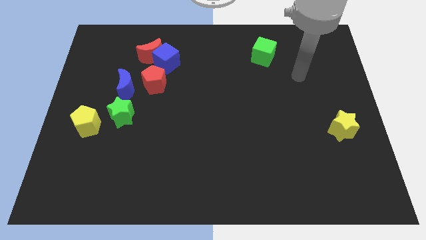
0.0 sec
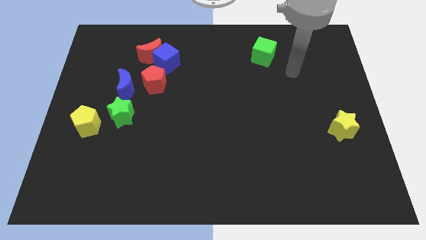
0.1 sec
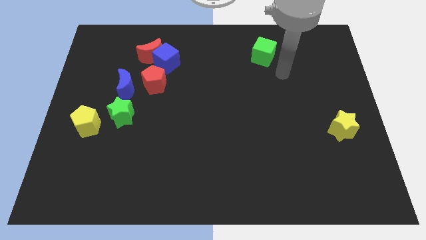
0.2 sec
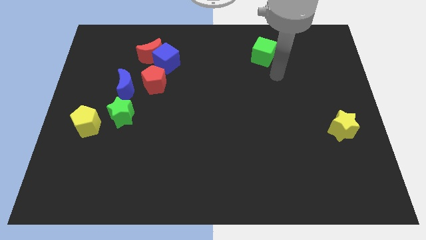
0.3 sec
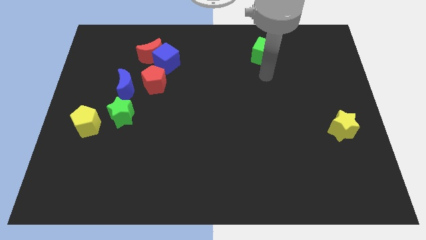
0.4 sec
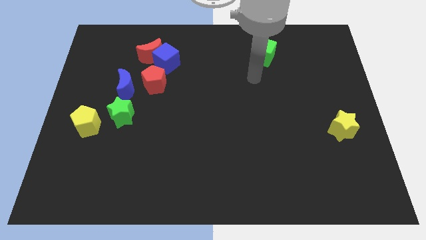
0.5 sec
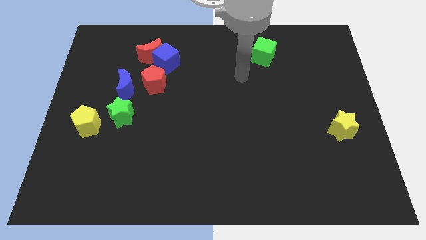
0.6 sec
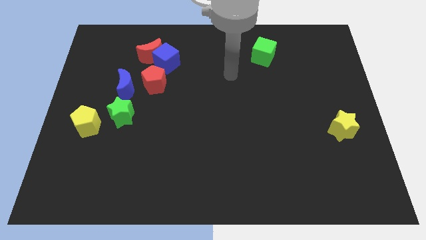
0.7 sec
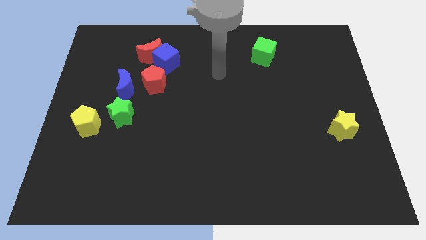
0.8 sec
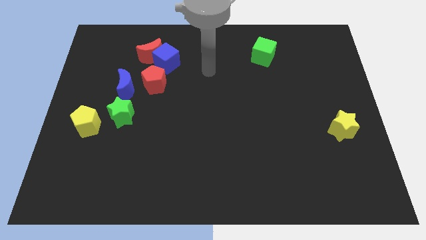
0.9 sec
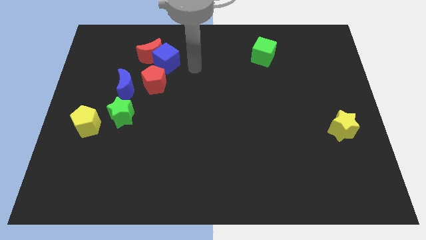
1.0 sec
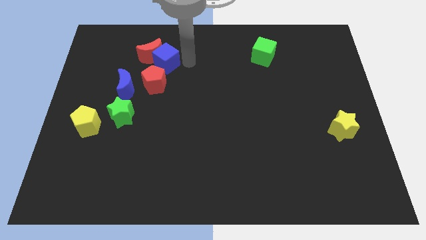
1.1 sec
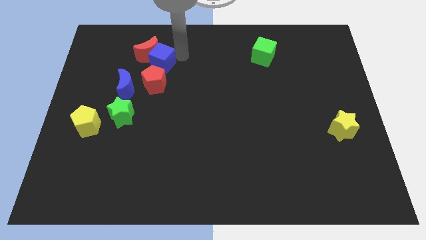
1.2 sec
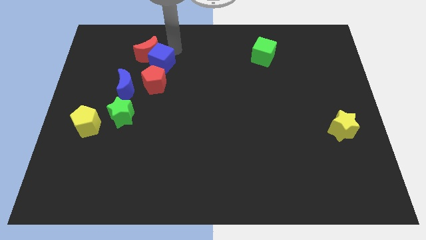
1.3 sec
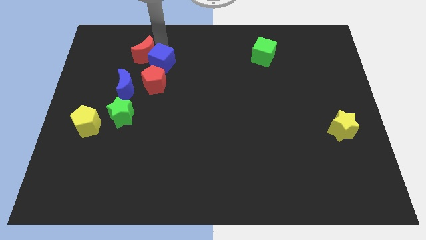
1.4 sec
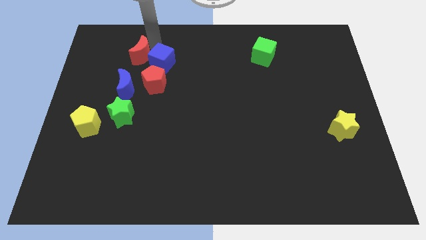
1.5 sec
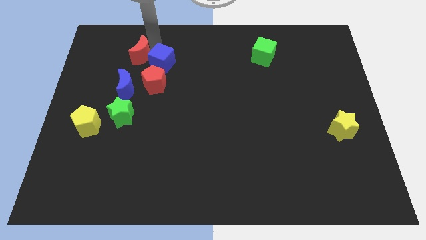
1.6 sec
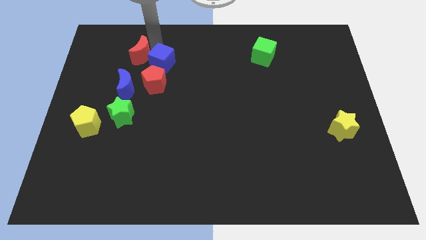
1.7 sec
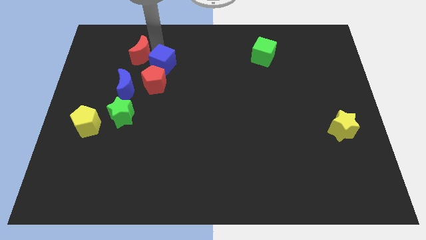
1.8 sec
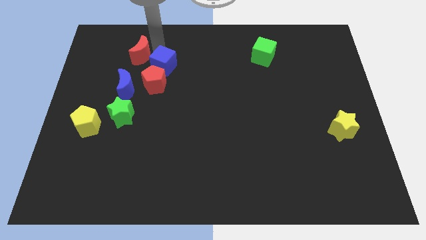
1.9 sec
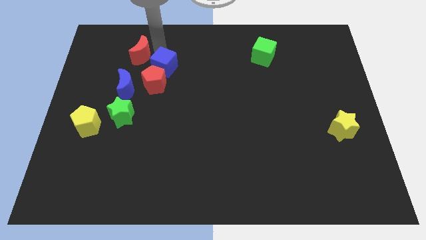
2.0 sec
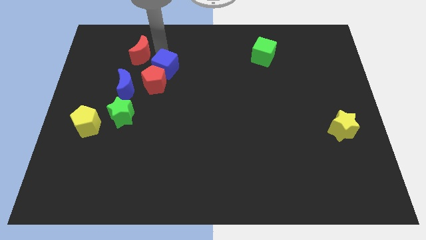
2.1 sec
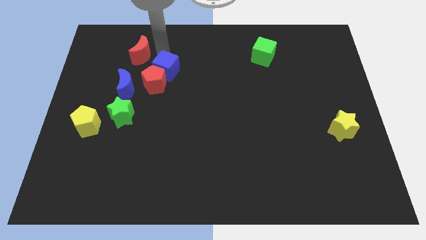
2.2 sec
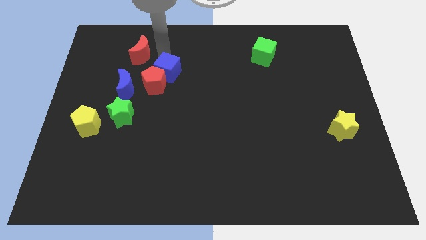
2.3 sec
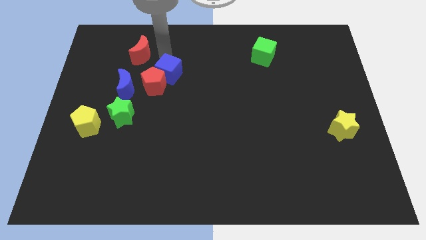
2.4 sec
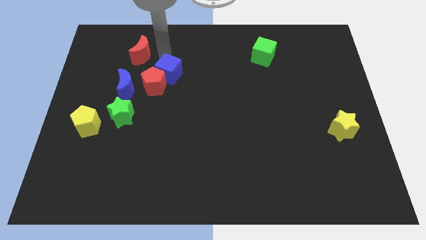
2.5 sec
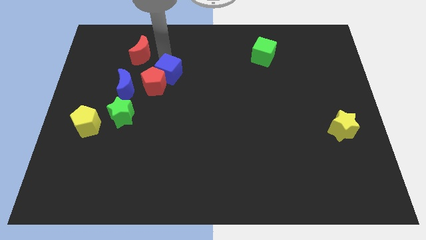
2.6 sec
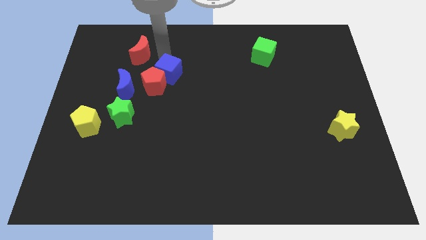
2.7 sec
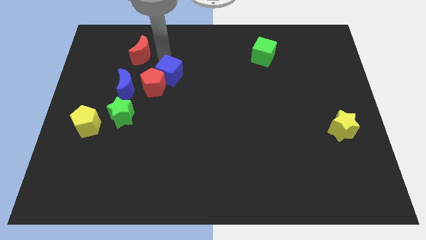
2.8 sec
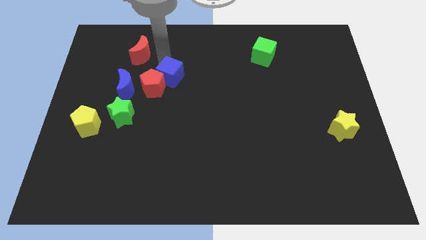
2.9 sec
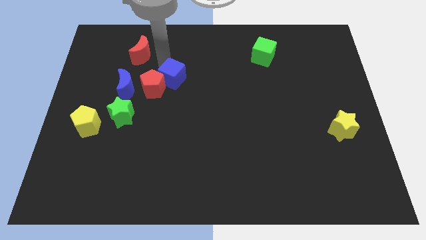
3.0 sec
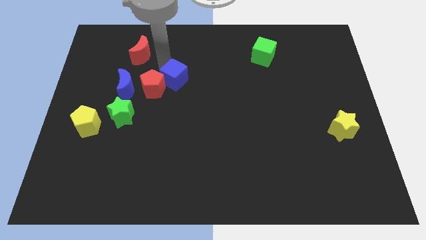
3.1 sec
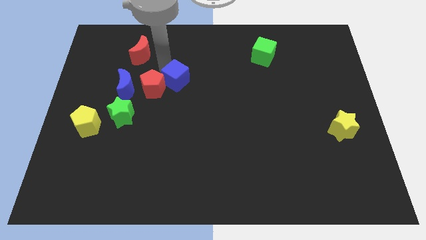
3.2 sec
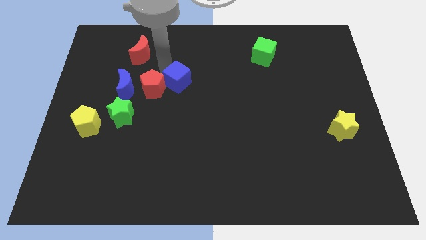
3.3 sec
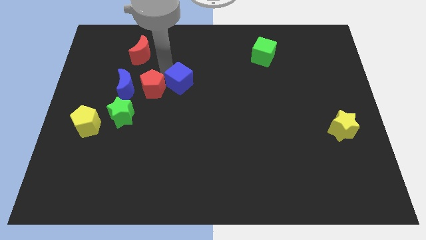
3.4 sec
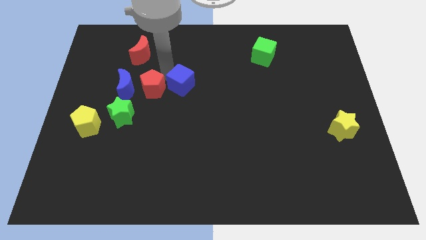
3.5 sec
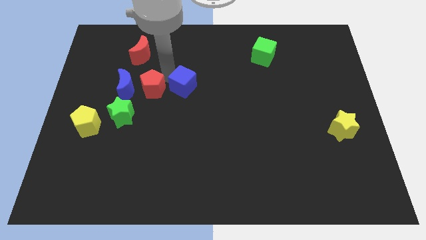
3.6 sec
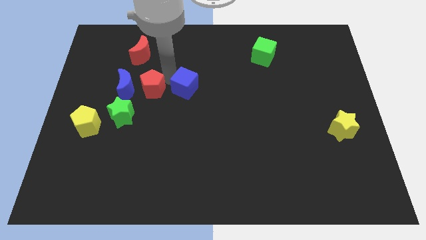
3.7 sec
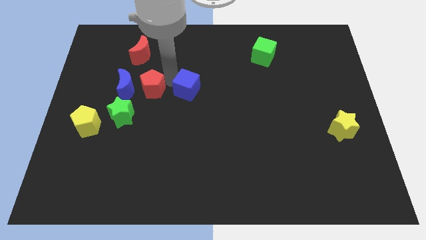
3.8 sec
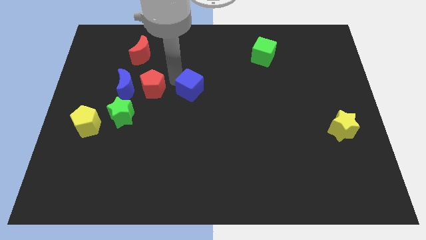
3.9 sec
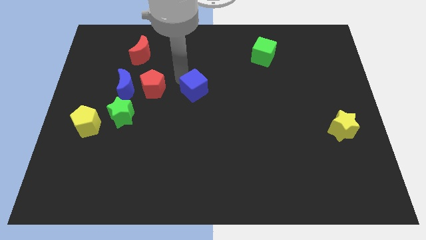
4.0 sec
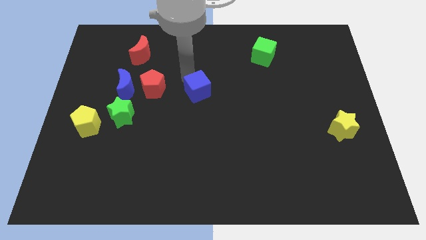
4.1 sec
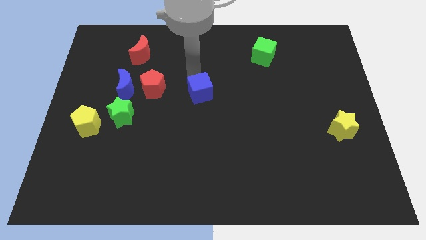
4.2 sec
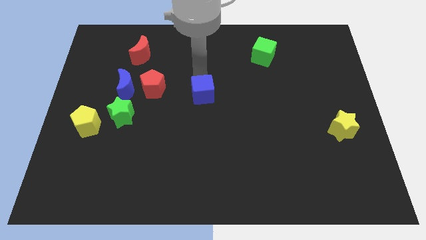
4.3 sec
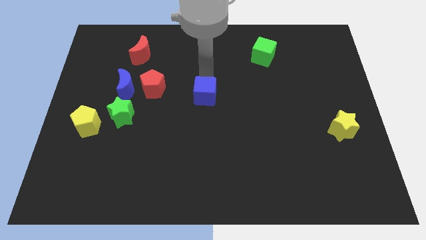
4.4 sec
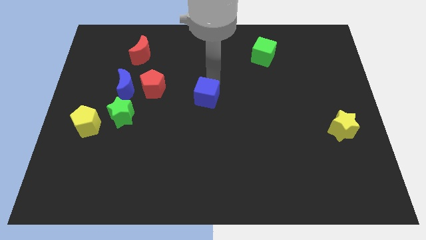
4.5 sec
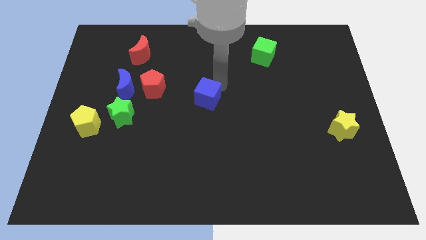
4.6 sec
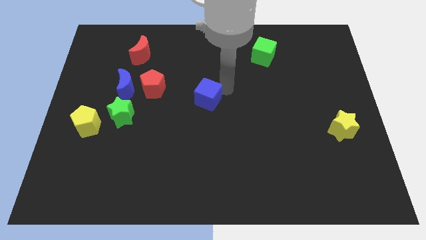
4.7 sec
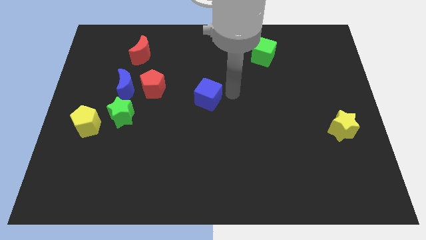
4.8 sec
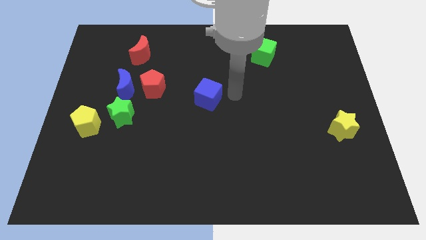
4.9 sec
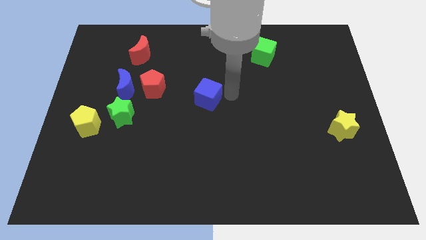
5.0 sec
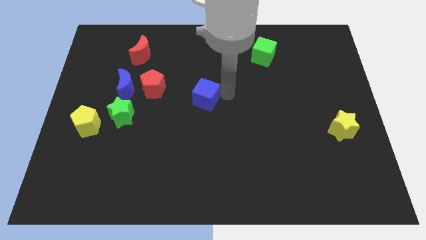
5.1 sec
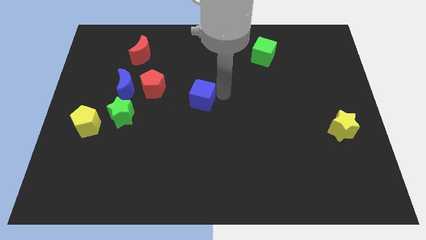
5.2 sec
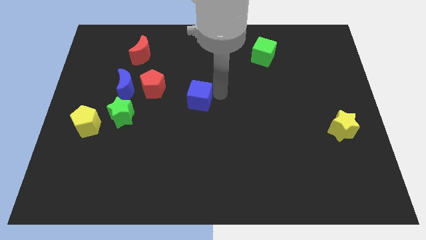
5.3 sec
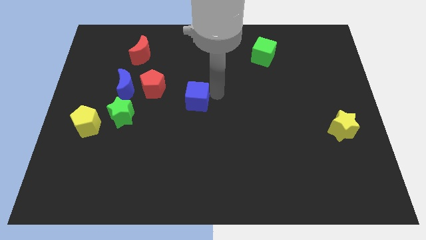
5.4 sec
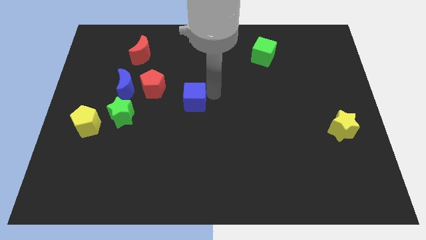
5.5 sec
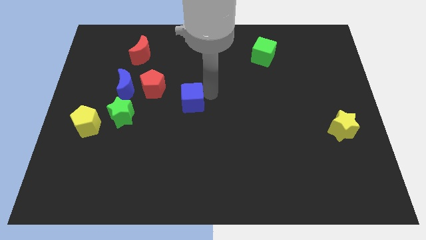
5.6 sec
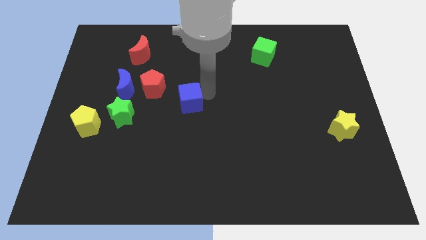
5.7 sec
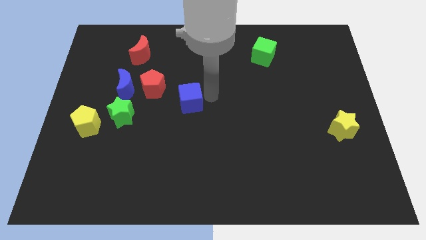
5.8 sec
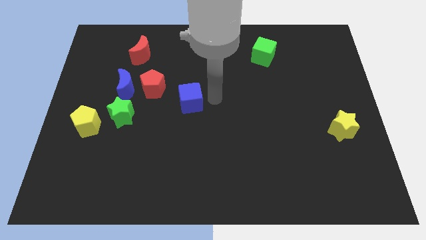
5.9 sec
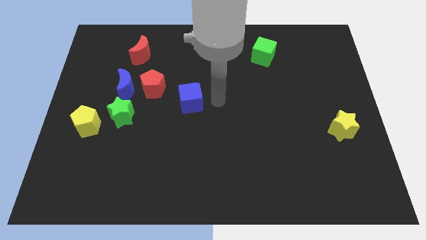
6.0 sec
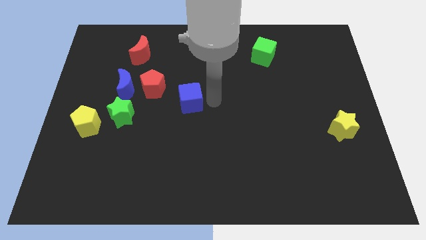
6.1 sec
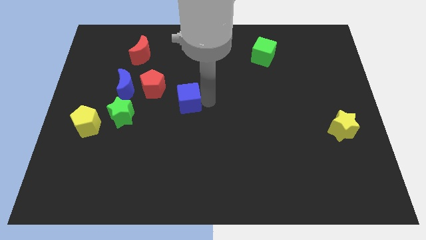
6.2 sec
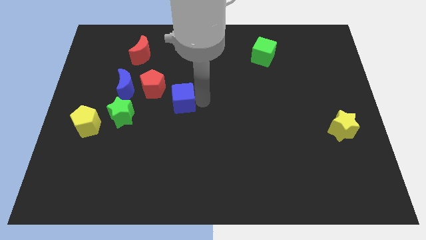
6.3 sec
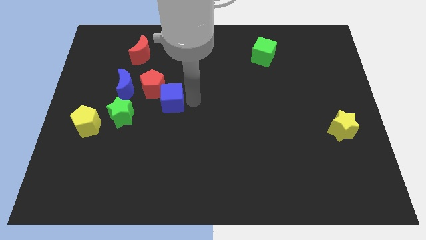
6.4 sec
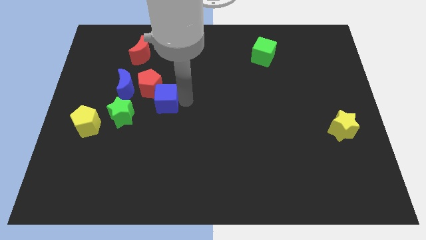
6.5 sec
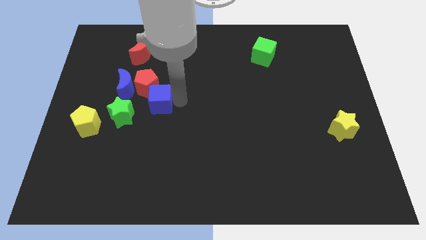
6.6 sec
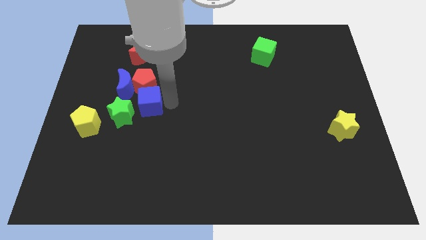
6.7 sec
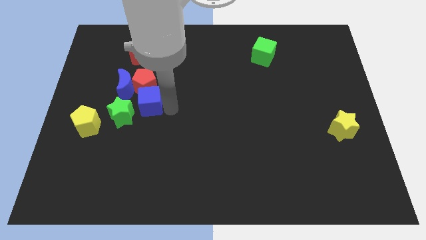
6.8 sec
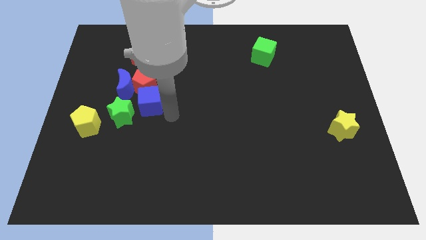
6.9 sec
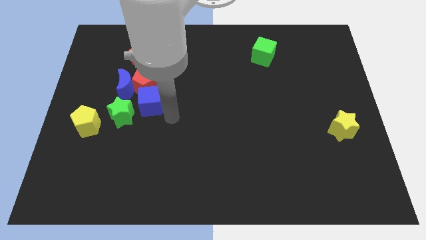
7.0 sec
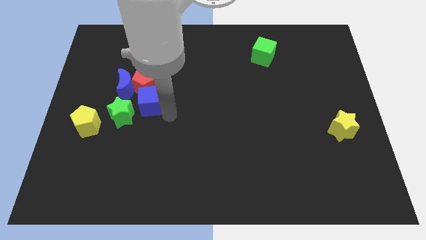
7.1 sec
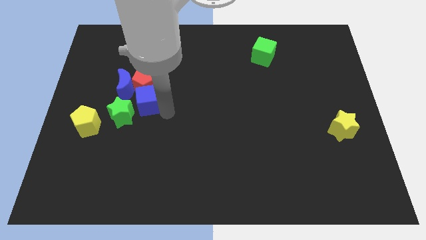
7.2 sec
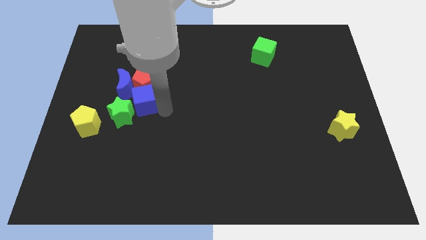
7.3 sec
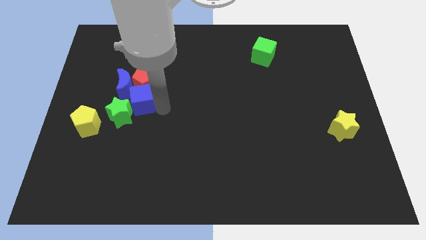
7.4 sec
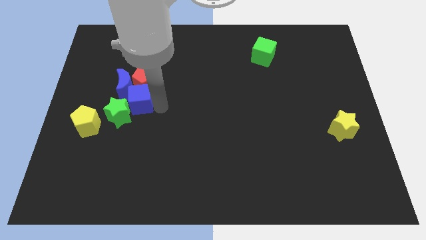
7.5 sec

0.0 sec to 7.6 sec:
slide the blue cube to the blue moon
